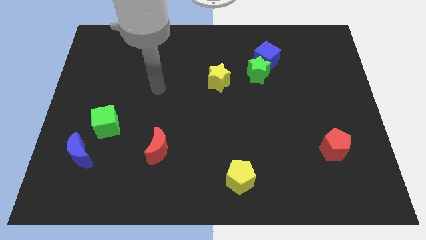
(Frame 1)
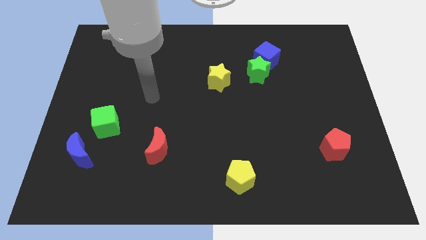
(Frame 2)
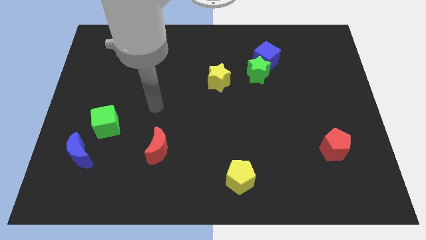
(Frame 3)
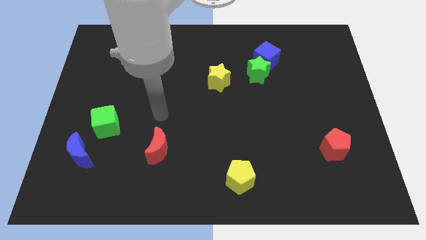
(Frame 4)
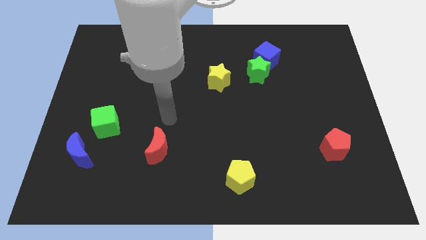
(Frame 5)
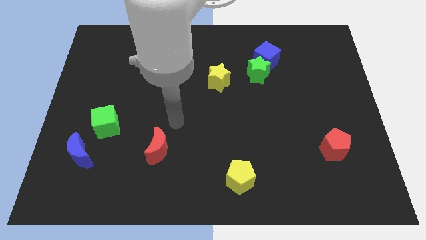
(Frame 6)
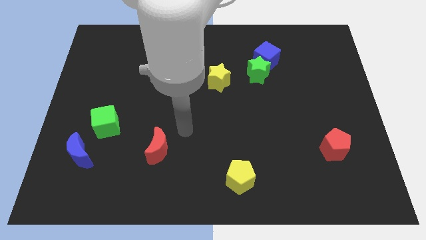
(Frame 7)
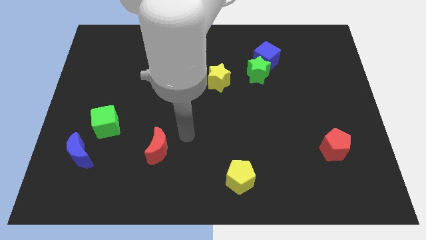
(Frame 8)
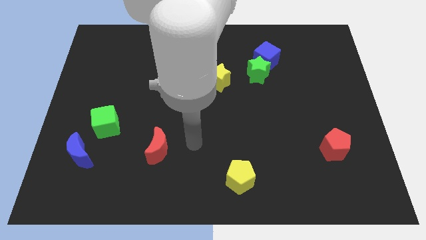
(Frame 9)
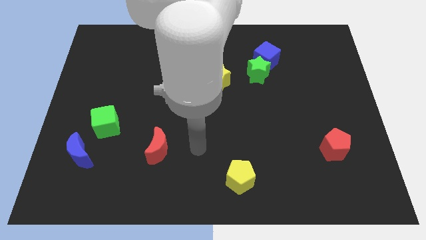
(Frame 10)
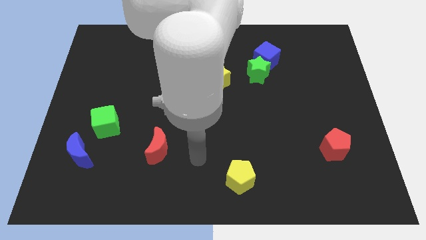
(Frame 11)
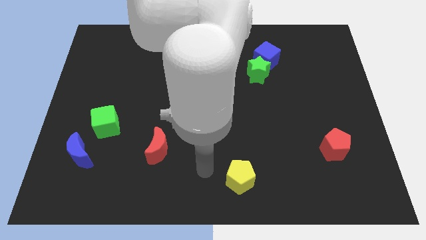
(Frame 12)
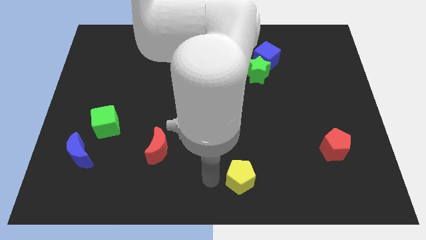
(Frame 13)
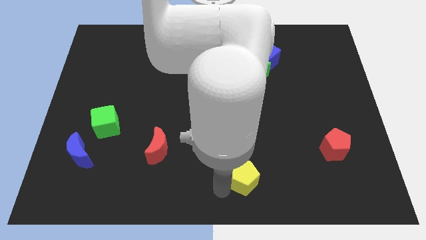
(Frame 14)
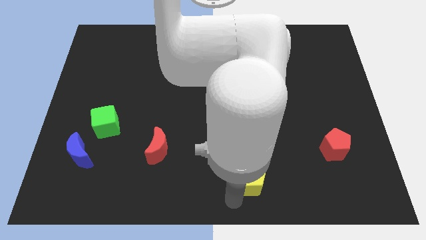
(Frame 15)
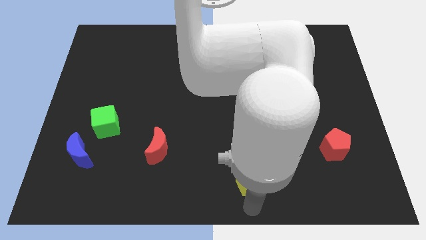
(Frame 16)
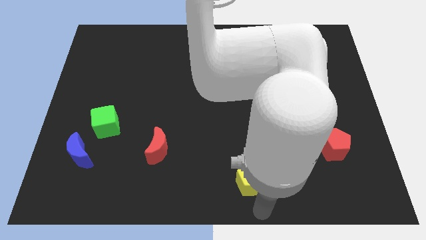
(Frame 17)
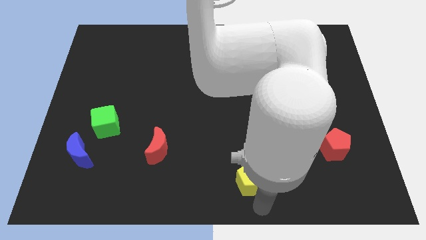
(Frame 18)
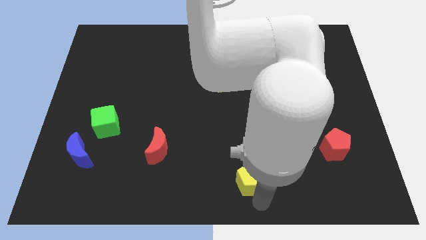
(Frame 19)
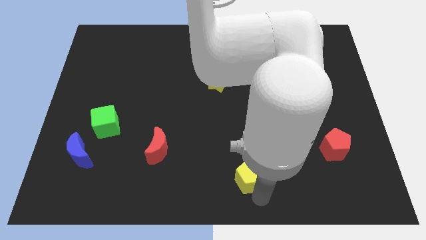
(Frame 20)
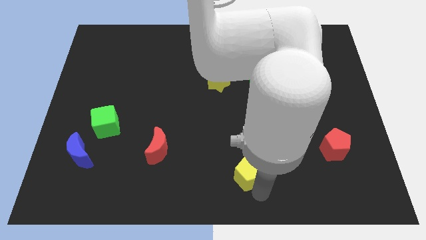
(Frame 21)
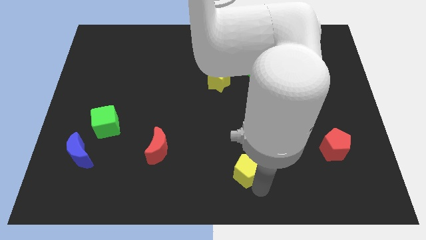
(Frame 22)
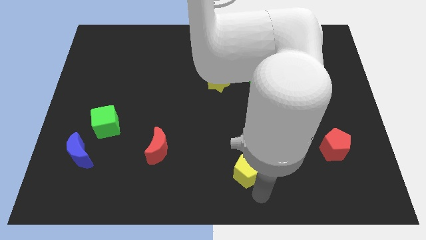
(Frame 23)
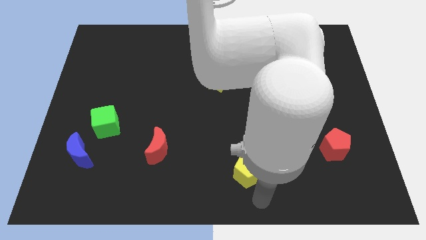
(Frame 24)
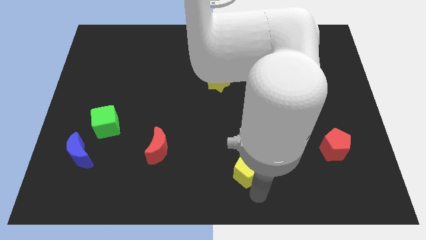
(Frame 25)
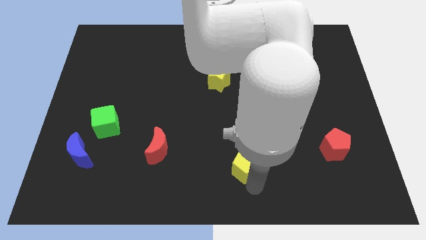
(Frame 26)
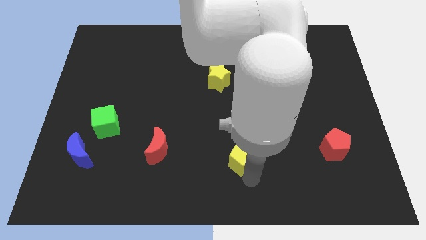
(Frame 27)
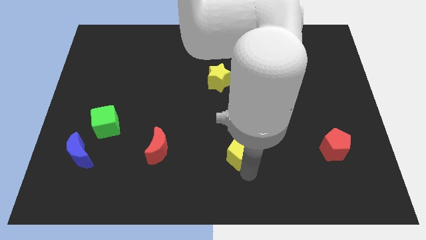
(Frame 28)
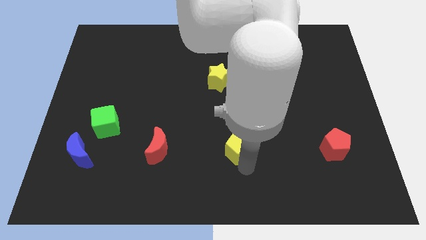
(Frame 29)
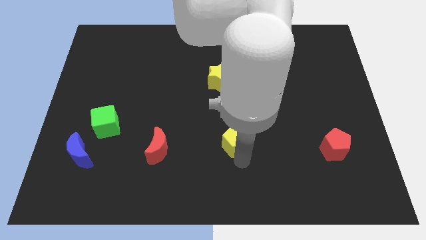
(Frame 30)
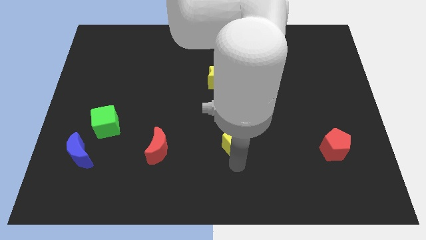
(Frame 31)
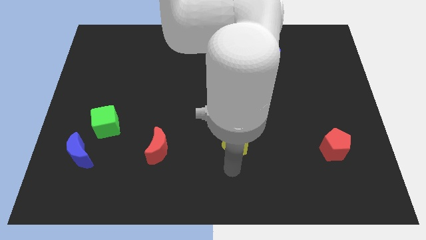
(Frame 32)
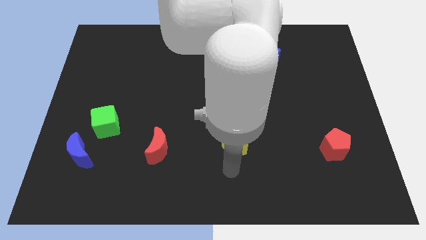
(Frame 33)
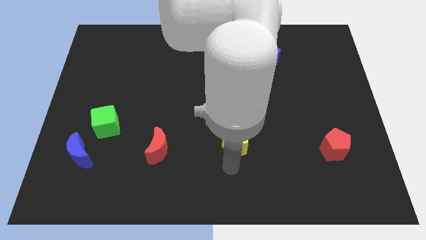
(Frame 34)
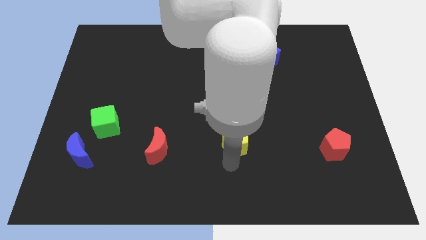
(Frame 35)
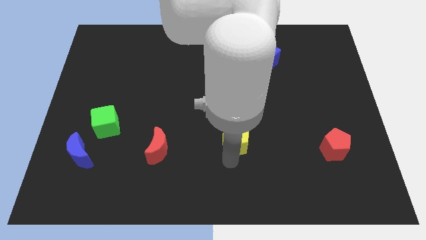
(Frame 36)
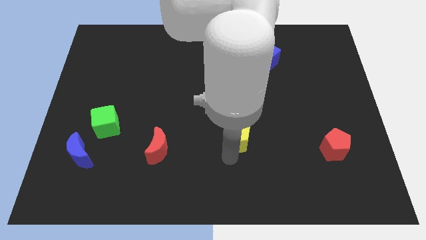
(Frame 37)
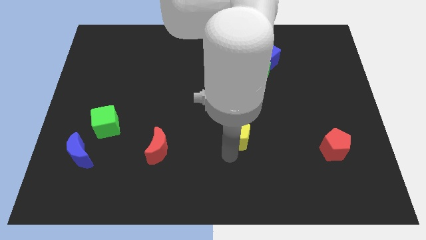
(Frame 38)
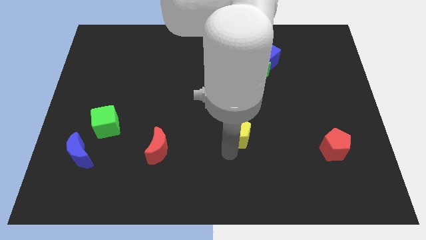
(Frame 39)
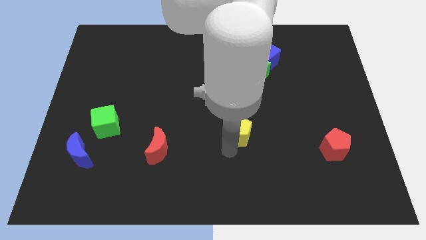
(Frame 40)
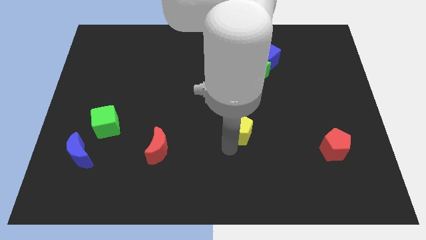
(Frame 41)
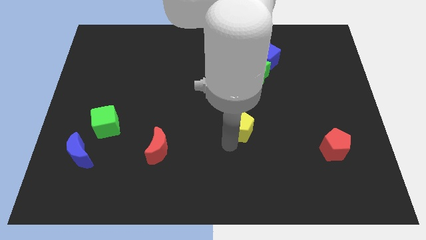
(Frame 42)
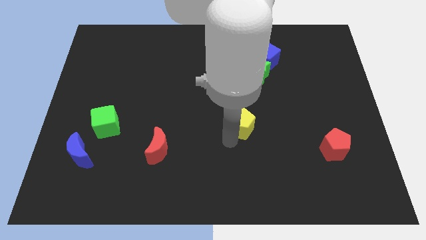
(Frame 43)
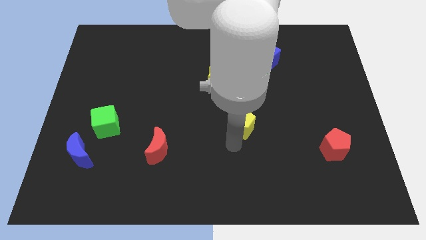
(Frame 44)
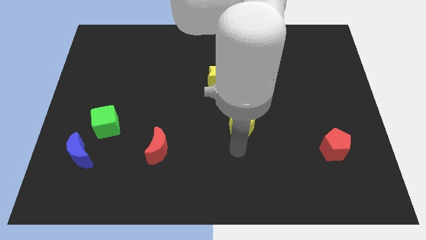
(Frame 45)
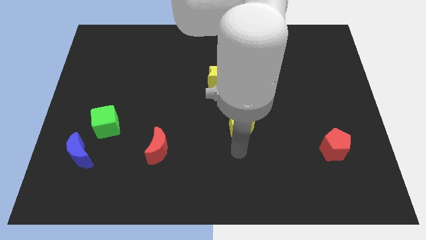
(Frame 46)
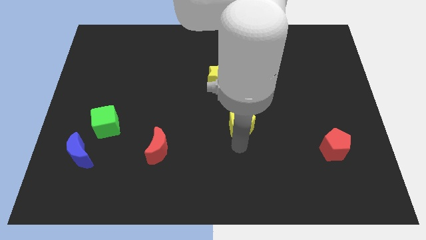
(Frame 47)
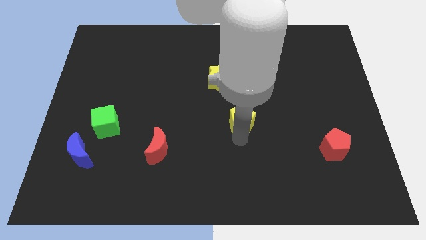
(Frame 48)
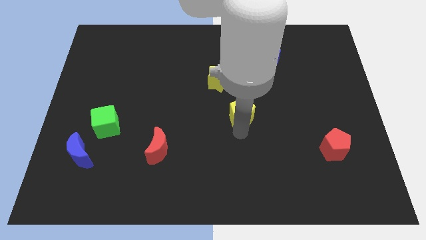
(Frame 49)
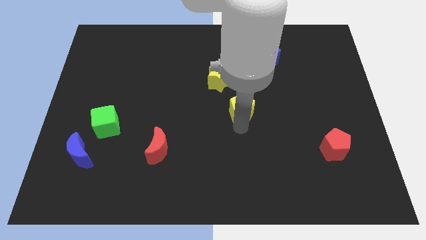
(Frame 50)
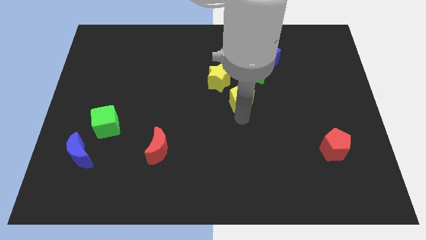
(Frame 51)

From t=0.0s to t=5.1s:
slide the yellow pentagon up

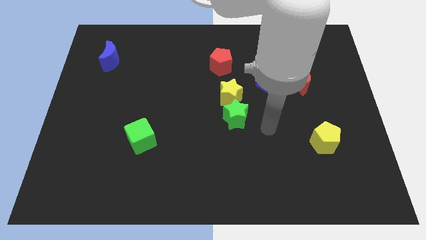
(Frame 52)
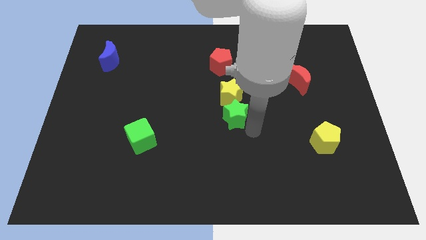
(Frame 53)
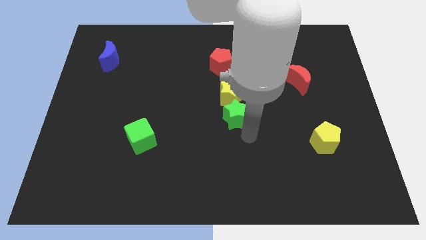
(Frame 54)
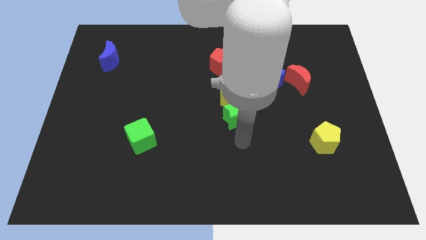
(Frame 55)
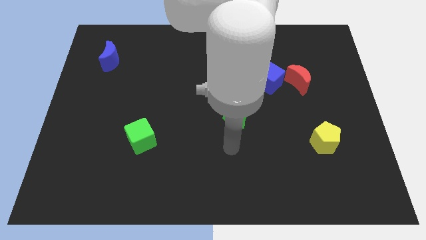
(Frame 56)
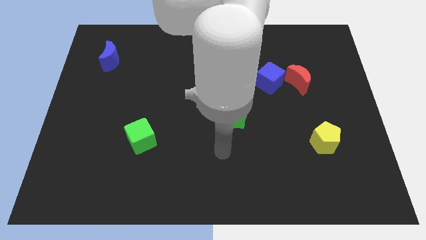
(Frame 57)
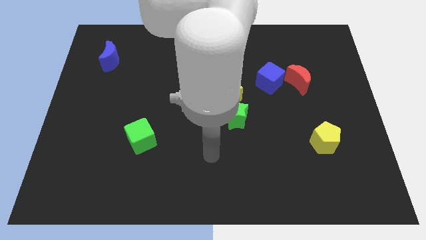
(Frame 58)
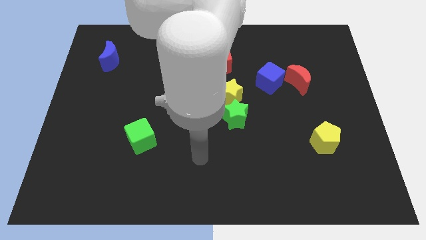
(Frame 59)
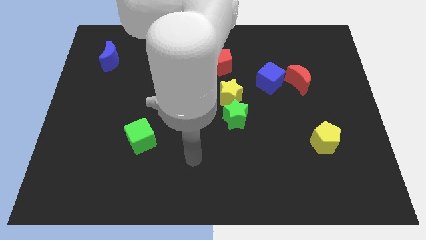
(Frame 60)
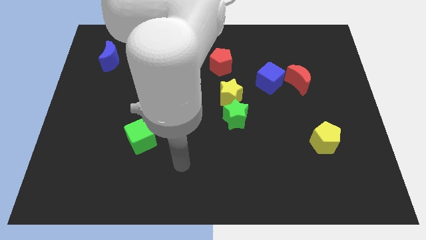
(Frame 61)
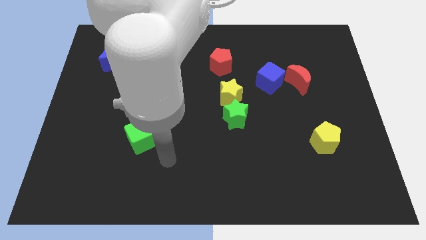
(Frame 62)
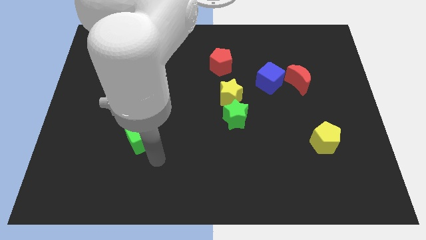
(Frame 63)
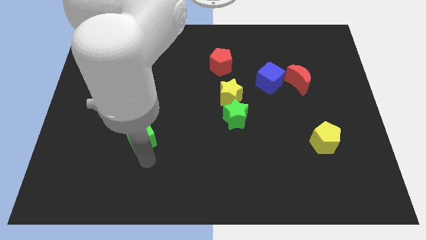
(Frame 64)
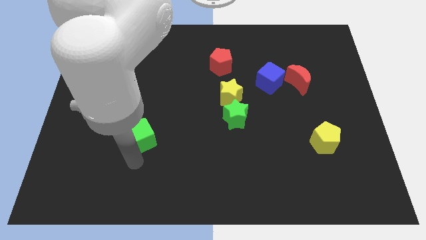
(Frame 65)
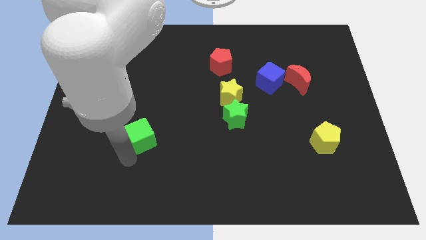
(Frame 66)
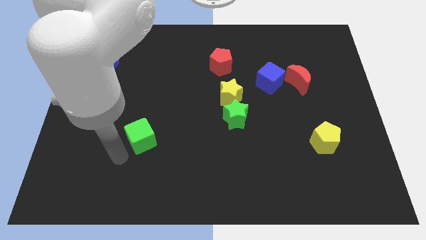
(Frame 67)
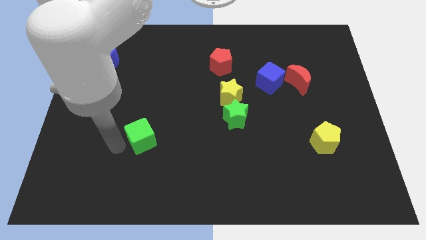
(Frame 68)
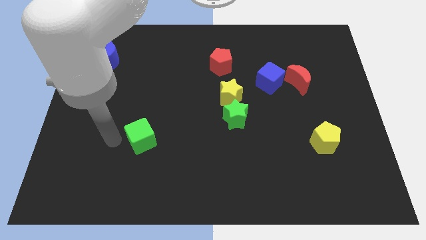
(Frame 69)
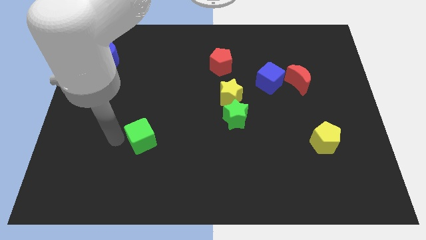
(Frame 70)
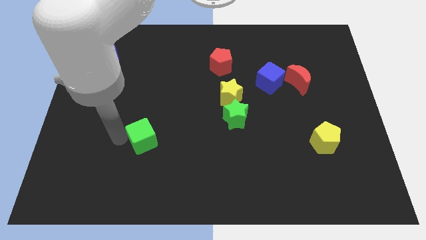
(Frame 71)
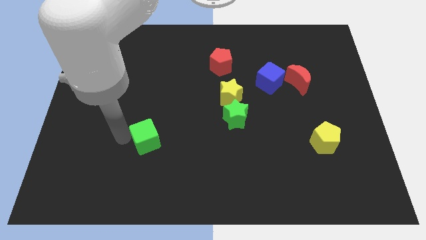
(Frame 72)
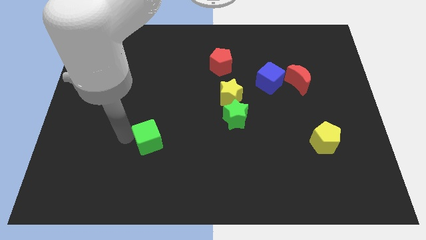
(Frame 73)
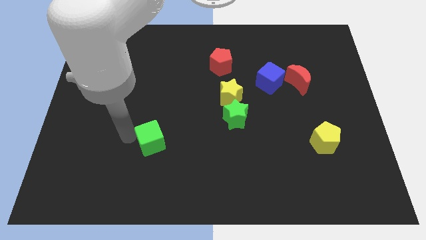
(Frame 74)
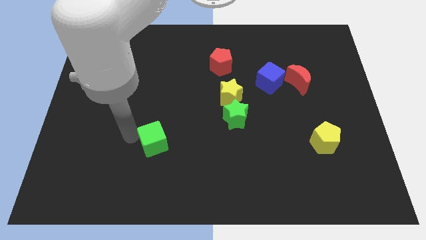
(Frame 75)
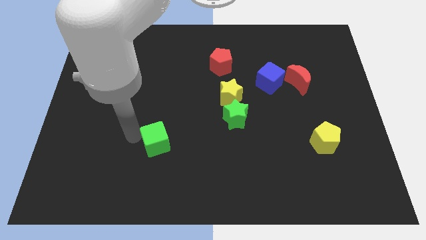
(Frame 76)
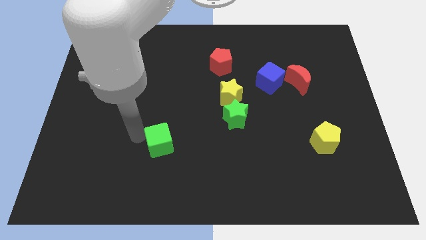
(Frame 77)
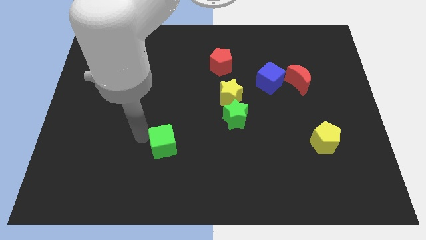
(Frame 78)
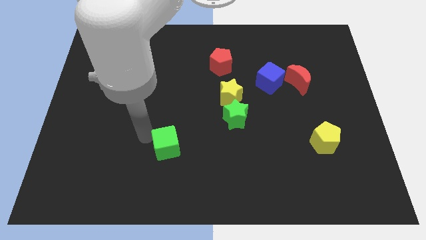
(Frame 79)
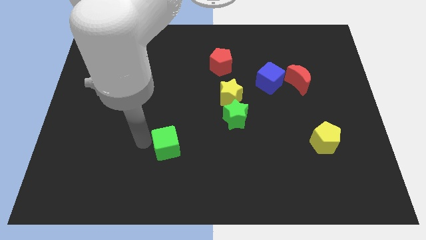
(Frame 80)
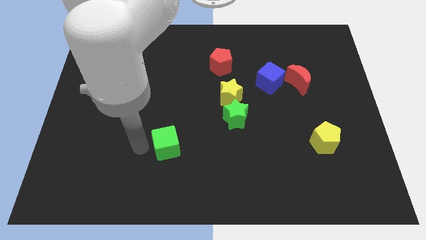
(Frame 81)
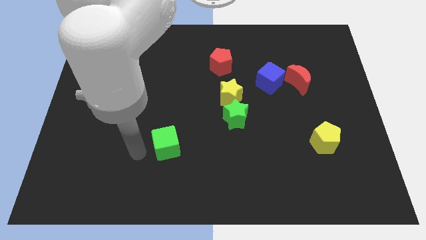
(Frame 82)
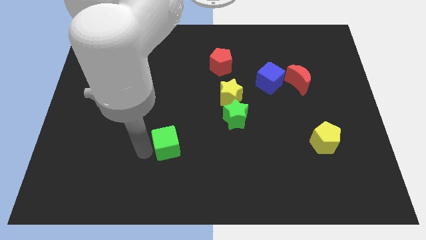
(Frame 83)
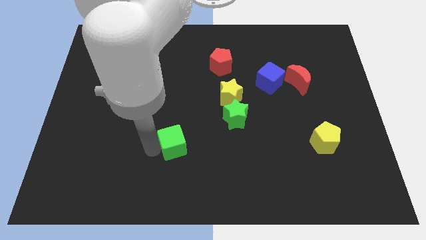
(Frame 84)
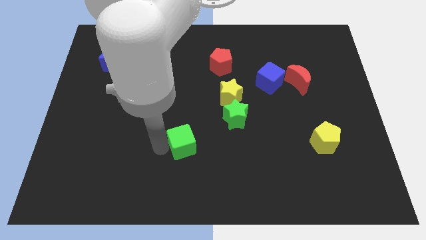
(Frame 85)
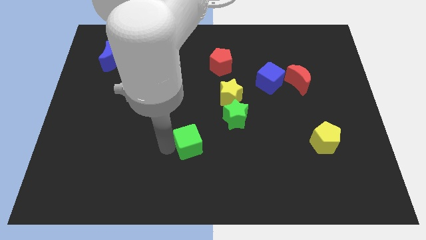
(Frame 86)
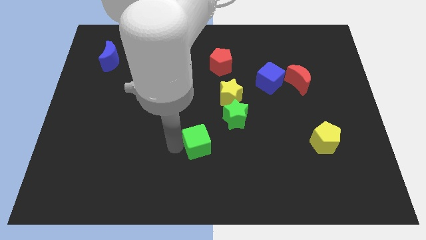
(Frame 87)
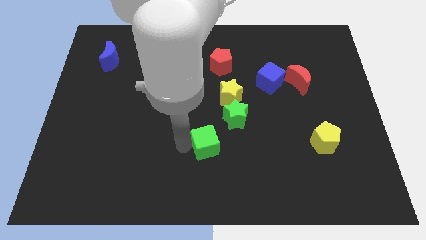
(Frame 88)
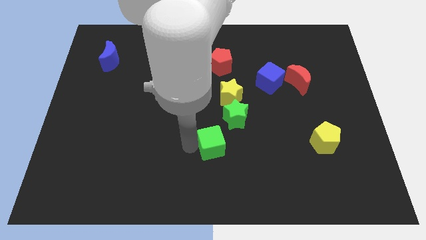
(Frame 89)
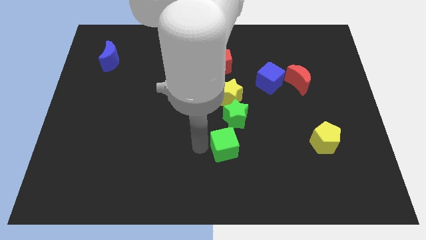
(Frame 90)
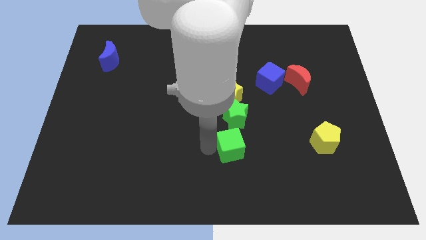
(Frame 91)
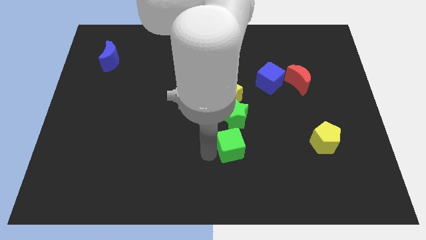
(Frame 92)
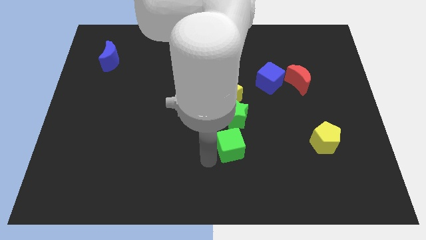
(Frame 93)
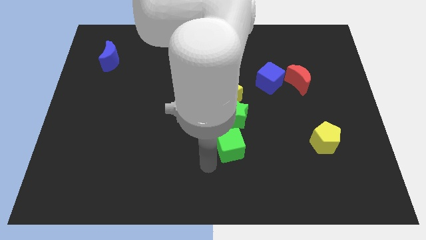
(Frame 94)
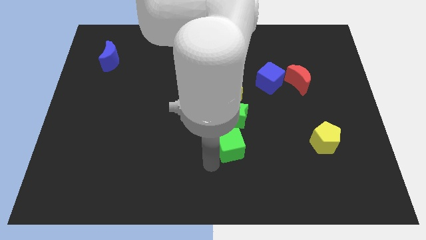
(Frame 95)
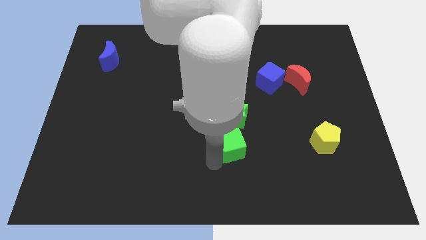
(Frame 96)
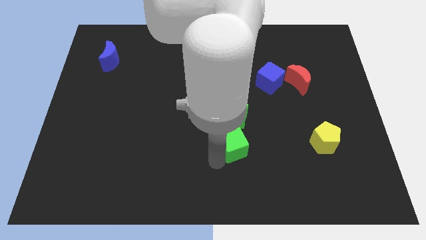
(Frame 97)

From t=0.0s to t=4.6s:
move the green cube right
